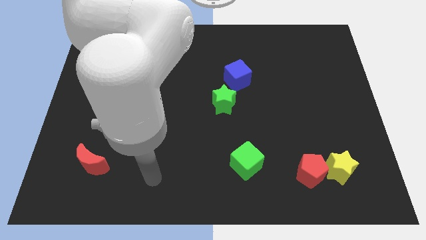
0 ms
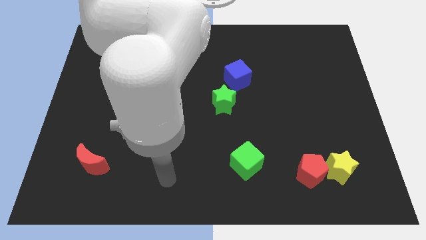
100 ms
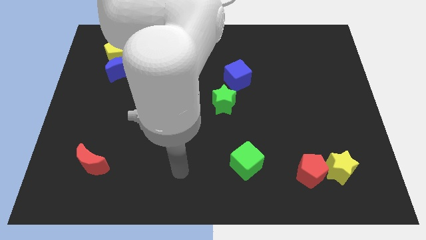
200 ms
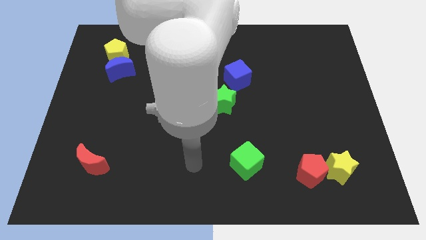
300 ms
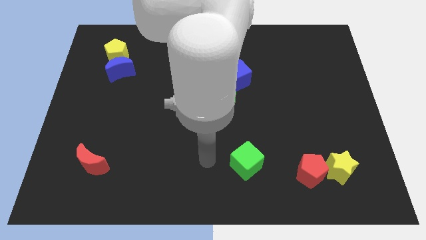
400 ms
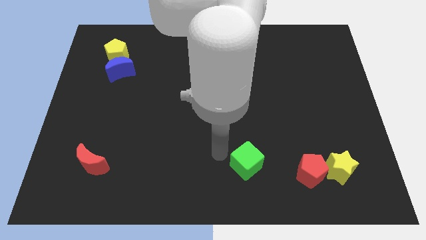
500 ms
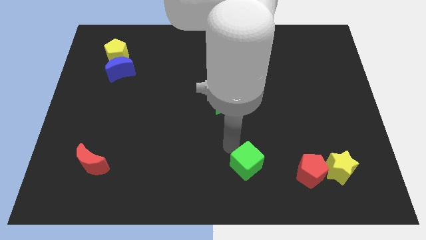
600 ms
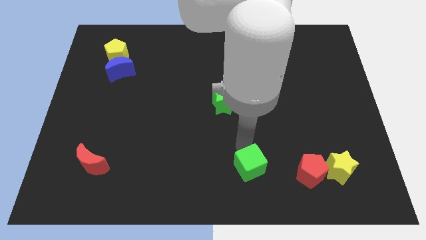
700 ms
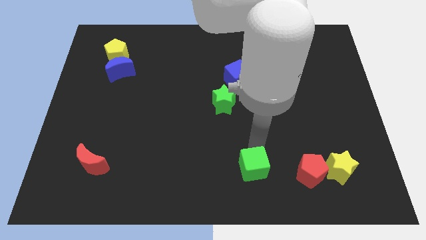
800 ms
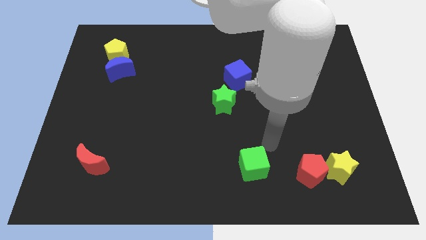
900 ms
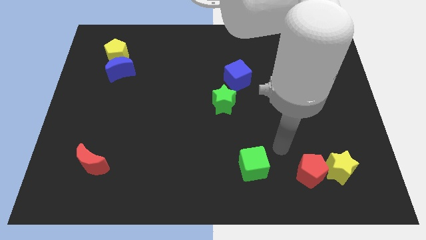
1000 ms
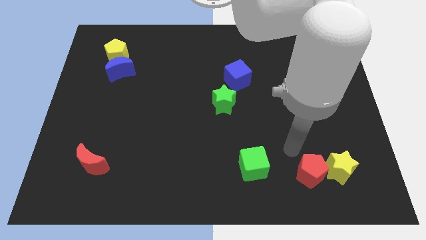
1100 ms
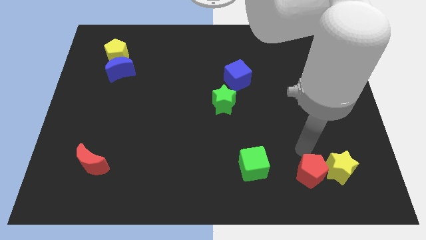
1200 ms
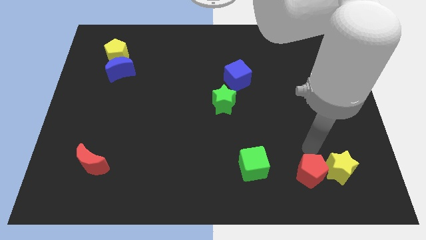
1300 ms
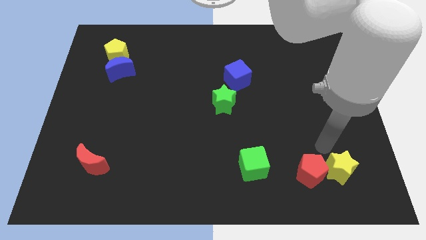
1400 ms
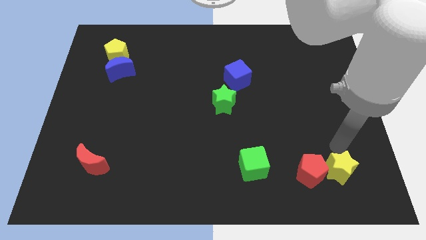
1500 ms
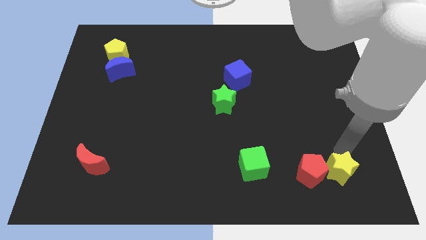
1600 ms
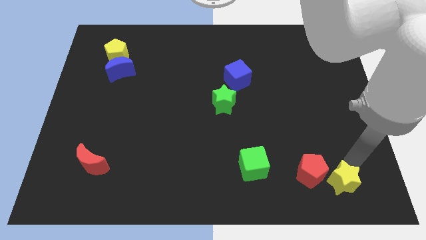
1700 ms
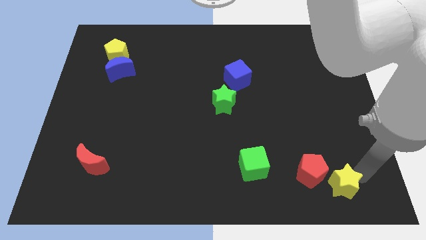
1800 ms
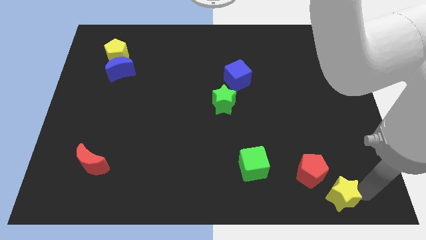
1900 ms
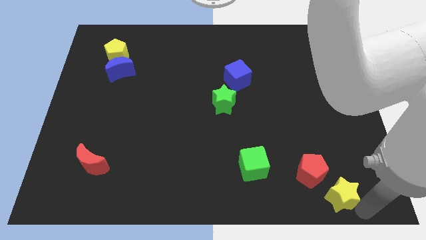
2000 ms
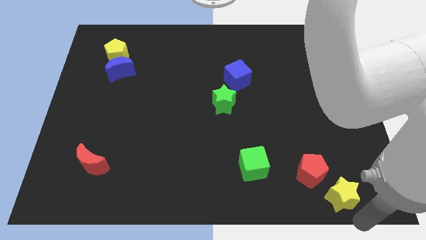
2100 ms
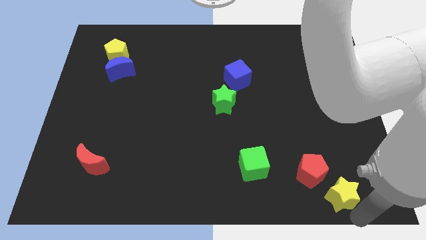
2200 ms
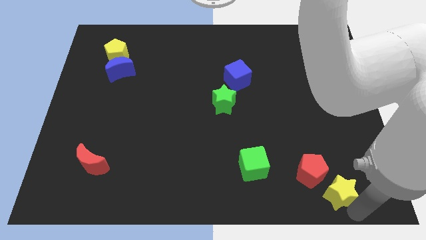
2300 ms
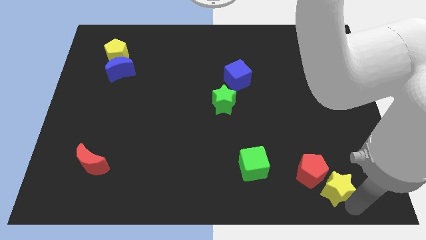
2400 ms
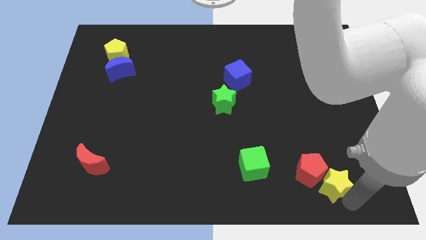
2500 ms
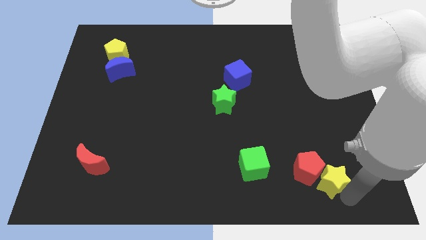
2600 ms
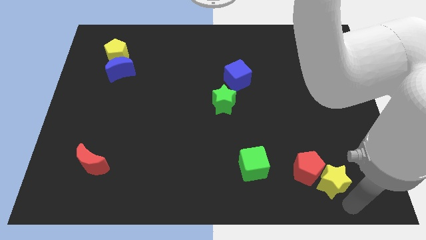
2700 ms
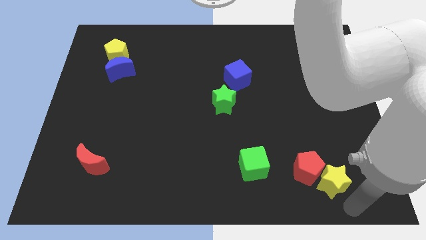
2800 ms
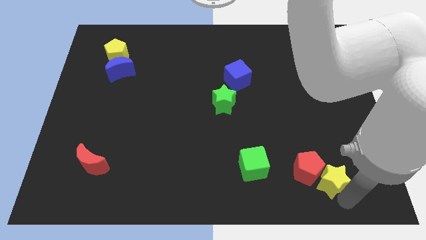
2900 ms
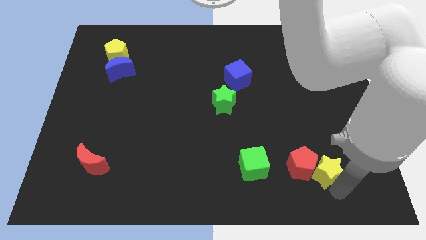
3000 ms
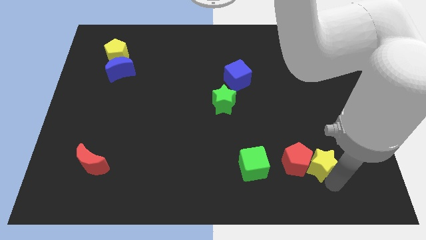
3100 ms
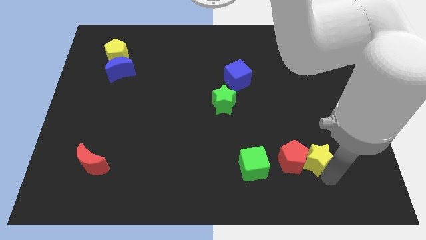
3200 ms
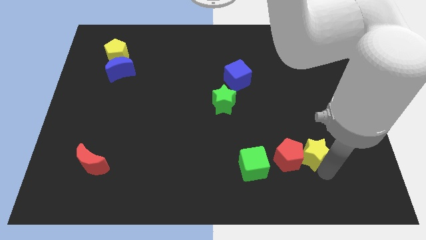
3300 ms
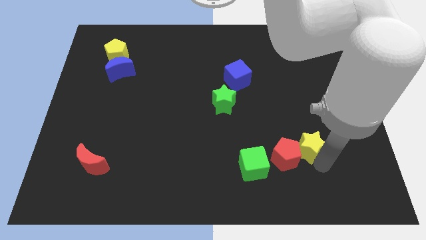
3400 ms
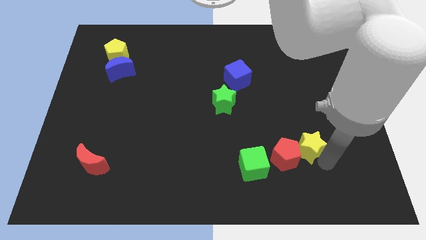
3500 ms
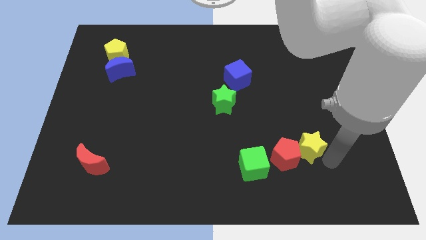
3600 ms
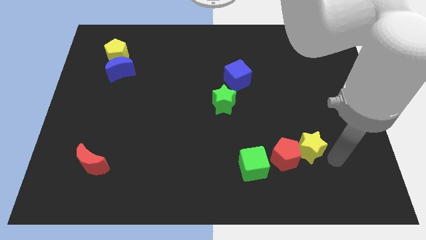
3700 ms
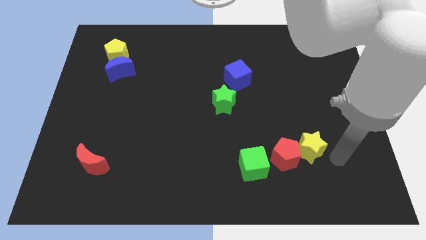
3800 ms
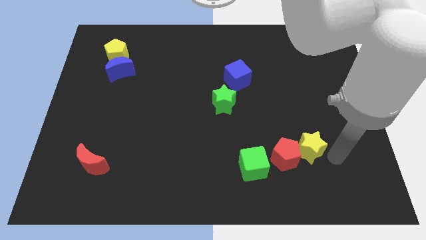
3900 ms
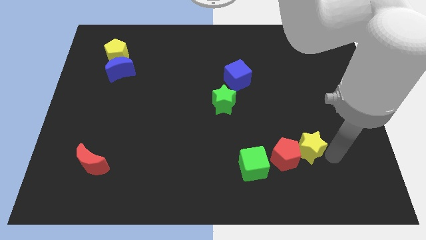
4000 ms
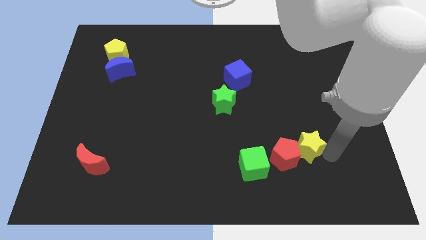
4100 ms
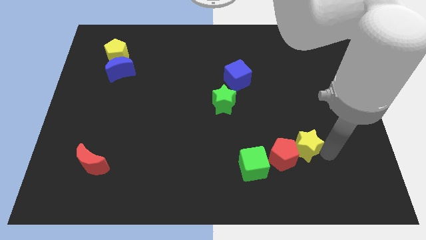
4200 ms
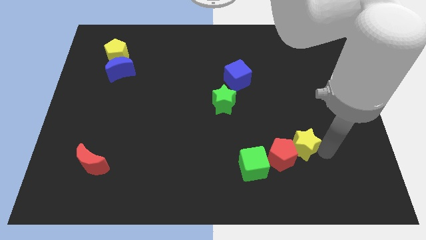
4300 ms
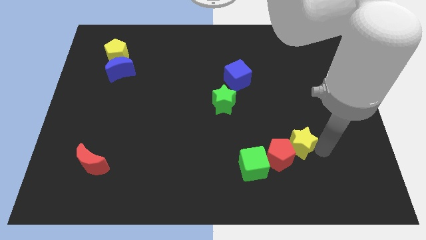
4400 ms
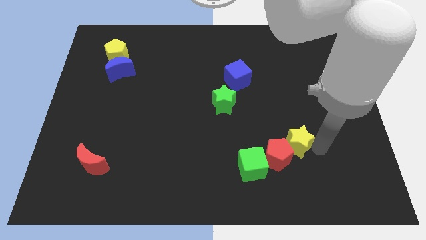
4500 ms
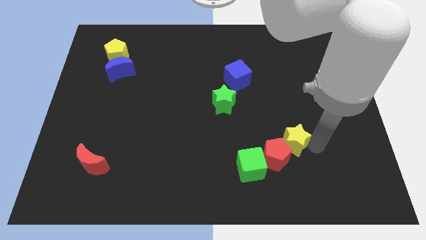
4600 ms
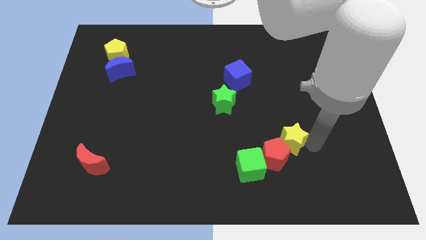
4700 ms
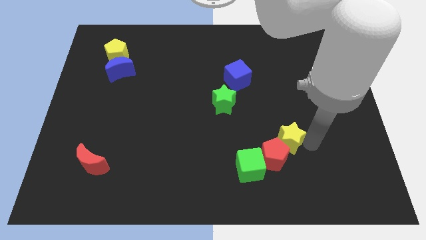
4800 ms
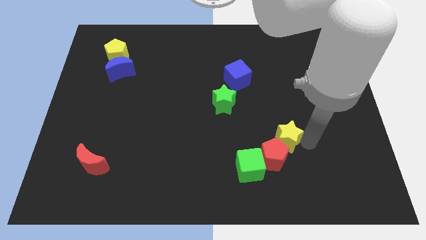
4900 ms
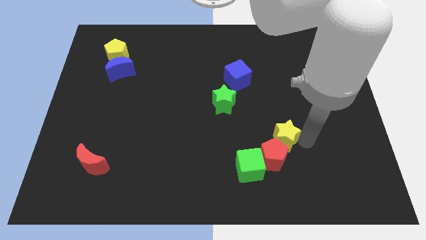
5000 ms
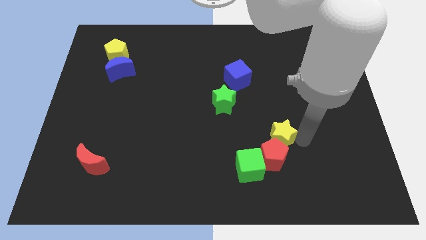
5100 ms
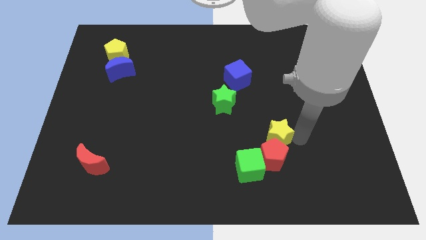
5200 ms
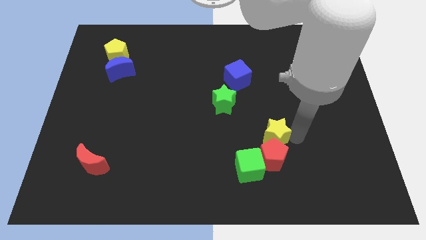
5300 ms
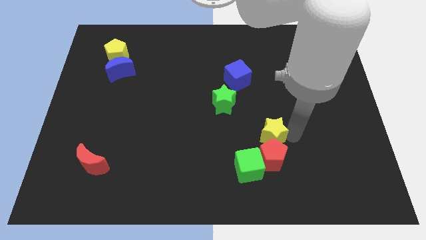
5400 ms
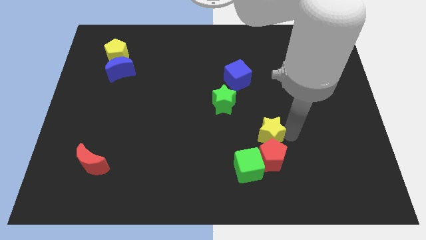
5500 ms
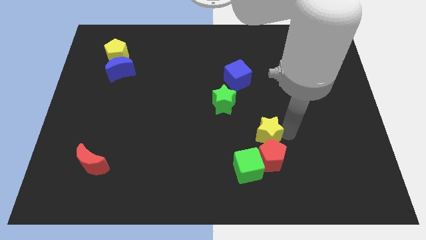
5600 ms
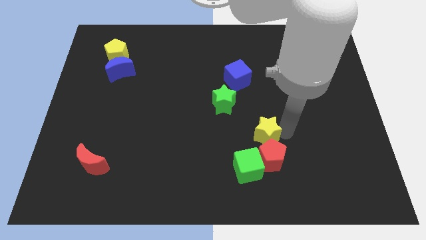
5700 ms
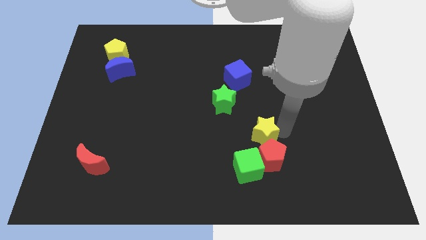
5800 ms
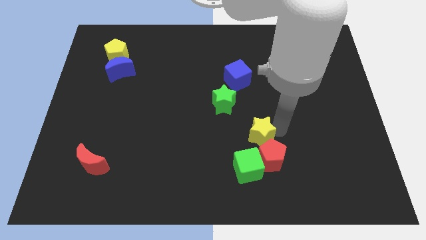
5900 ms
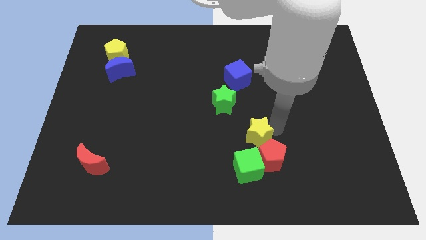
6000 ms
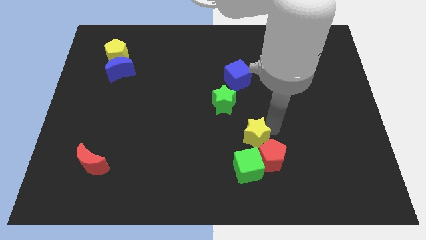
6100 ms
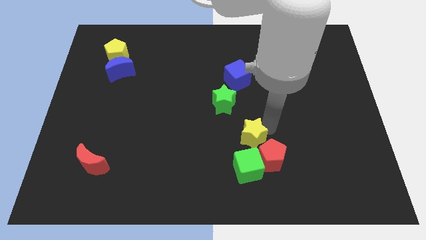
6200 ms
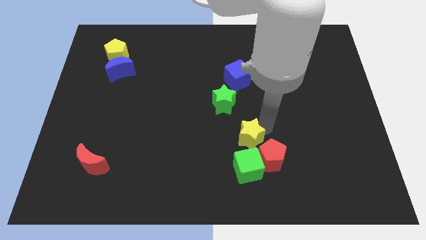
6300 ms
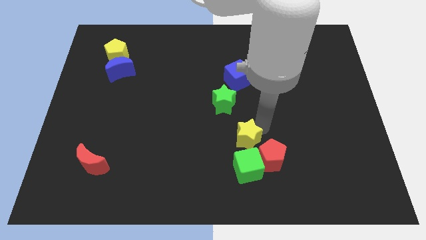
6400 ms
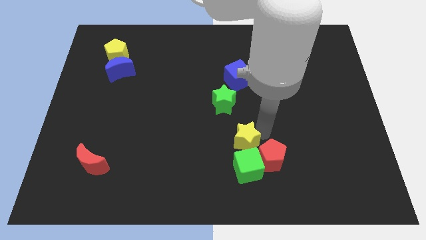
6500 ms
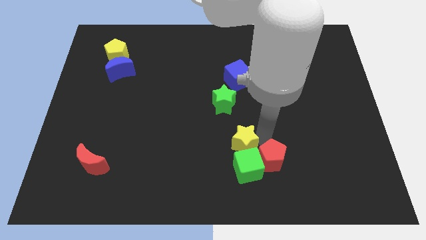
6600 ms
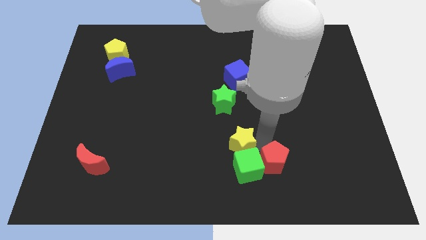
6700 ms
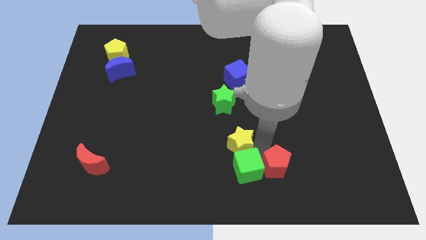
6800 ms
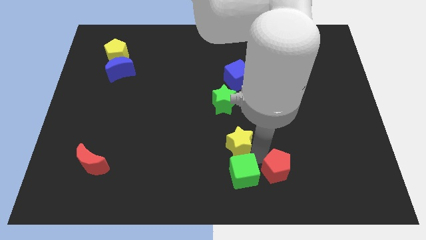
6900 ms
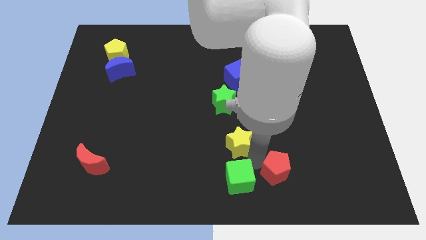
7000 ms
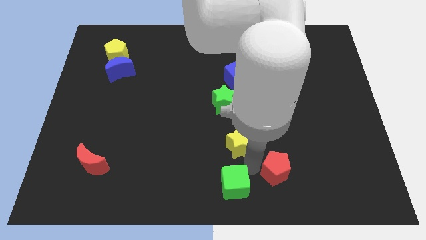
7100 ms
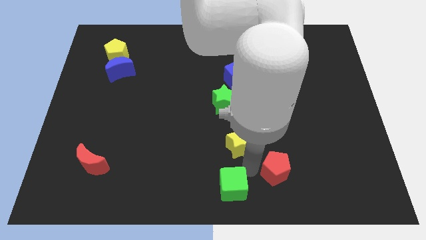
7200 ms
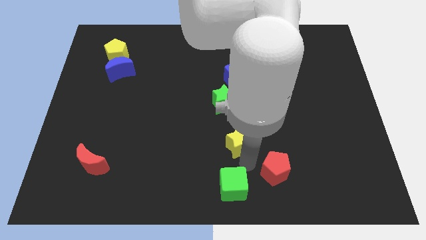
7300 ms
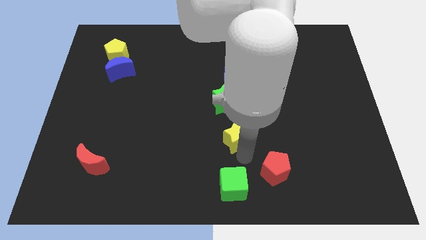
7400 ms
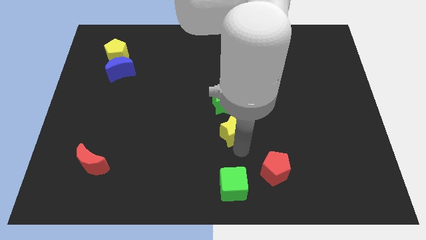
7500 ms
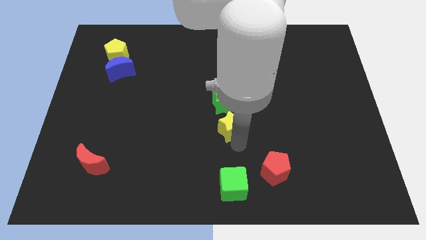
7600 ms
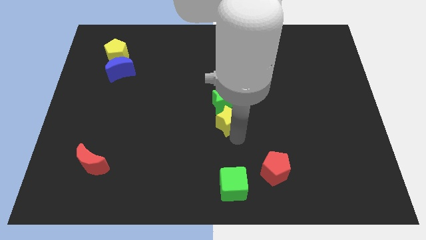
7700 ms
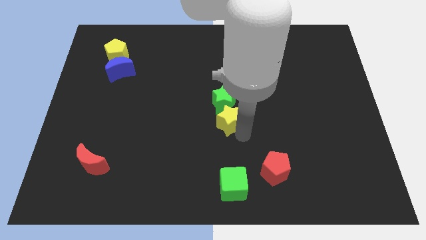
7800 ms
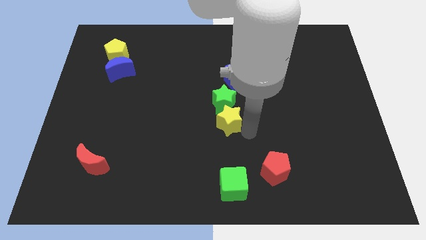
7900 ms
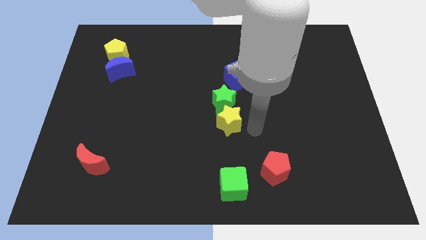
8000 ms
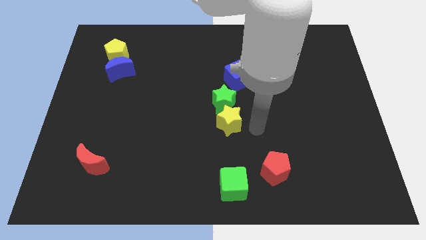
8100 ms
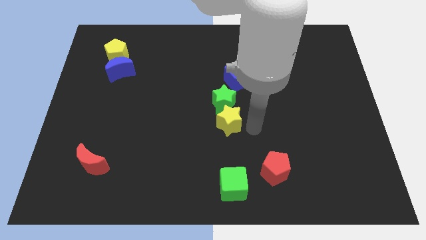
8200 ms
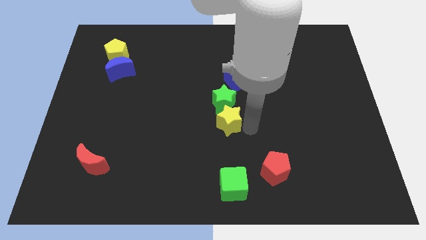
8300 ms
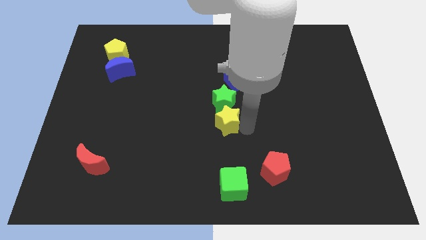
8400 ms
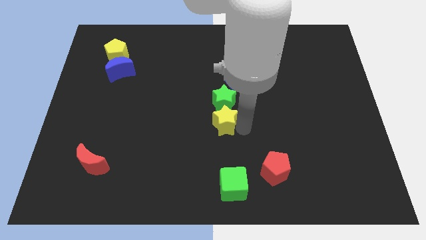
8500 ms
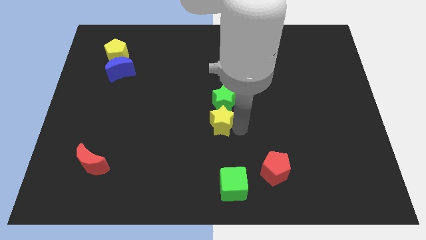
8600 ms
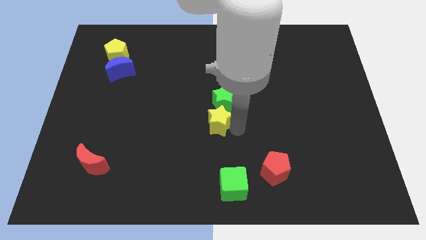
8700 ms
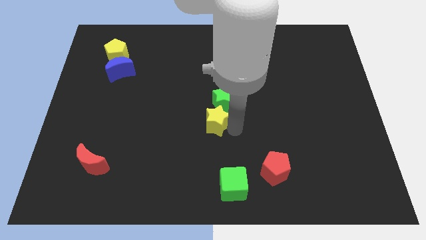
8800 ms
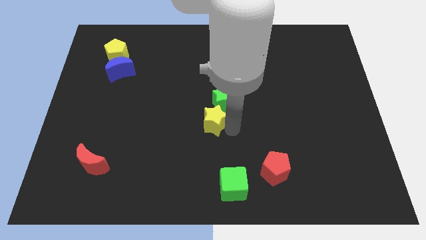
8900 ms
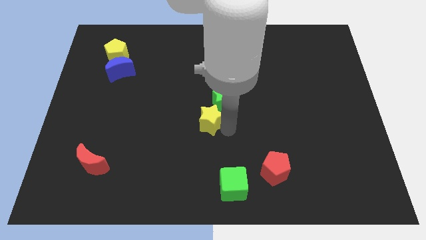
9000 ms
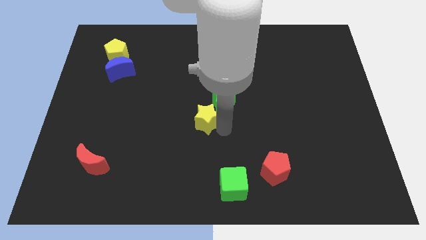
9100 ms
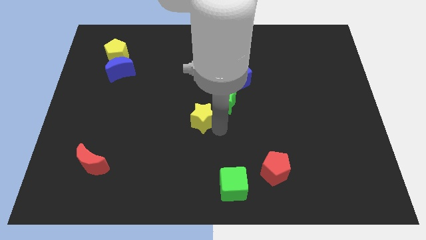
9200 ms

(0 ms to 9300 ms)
move the yellow star to the left of the green star
